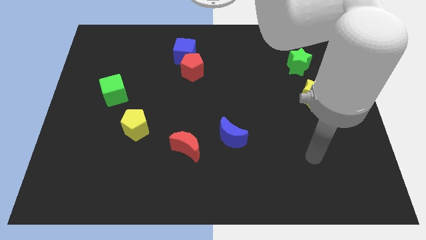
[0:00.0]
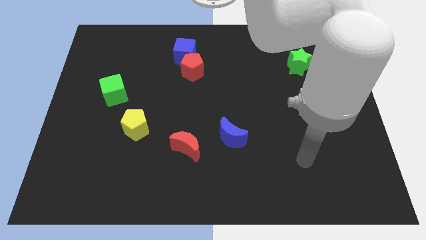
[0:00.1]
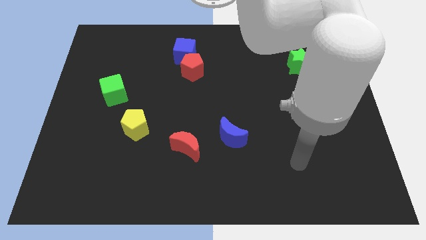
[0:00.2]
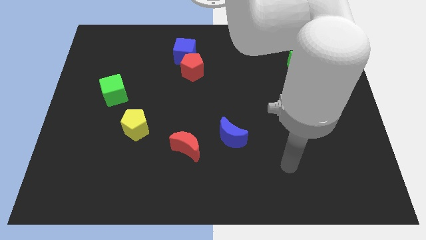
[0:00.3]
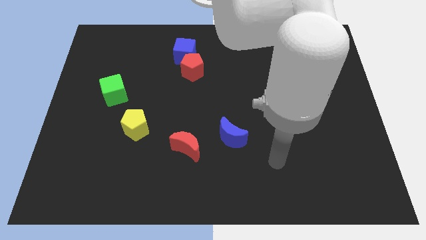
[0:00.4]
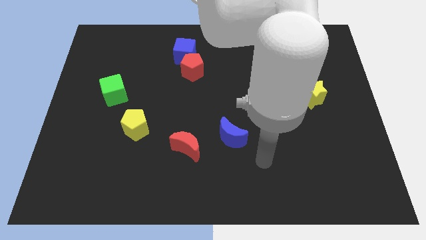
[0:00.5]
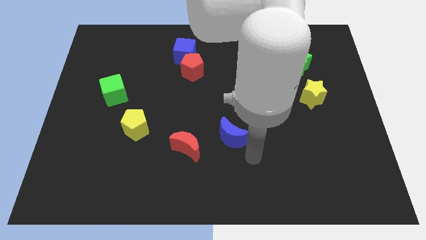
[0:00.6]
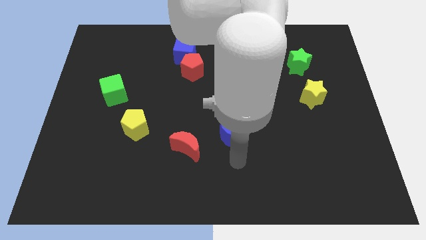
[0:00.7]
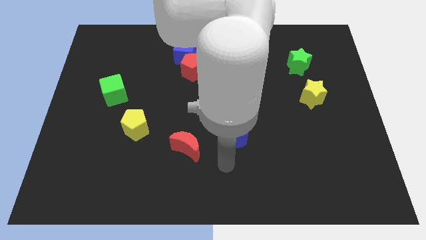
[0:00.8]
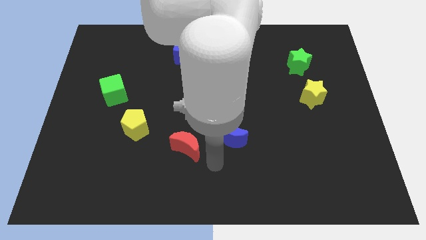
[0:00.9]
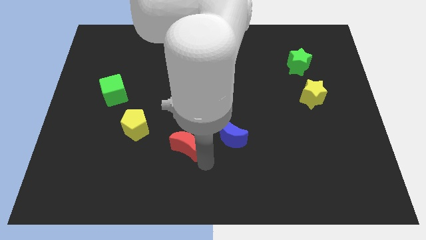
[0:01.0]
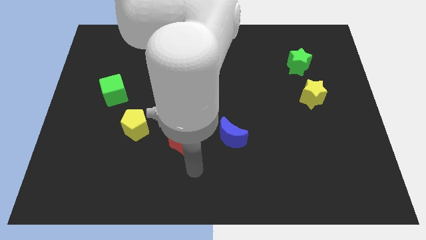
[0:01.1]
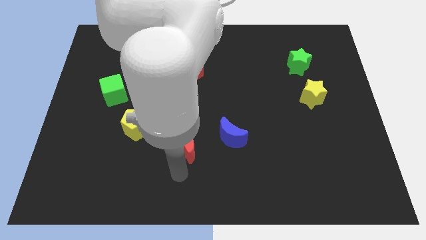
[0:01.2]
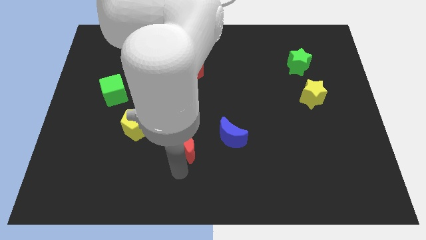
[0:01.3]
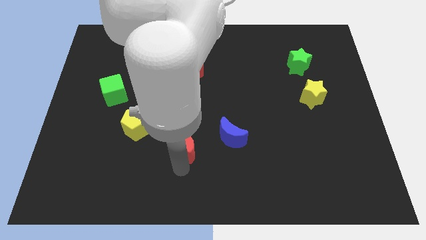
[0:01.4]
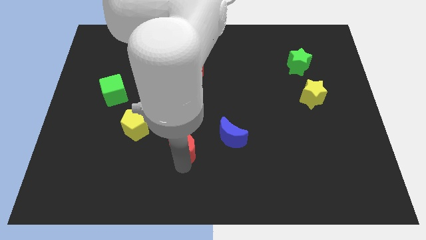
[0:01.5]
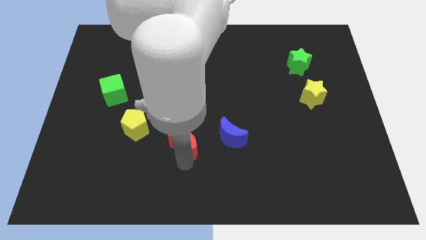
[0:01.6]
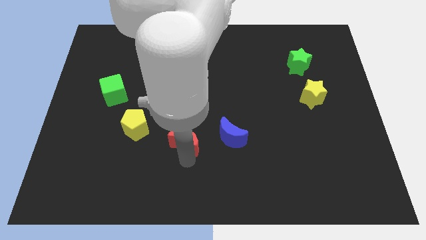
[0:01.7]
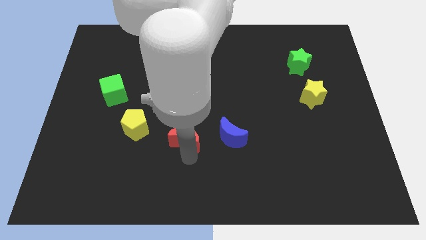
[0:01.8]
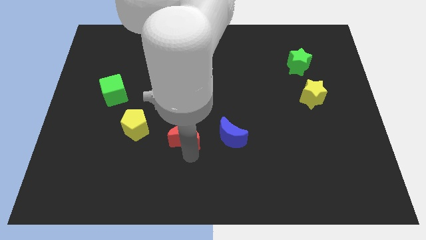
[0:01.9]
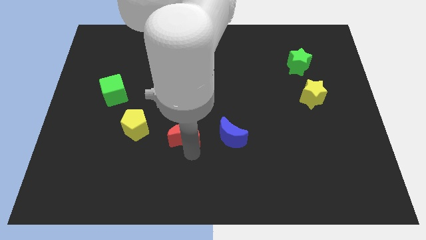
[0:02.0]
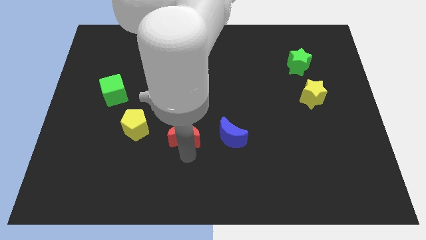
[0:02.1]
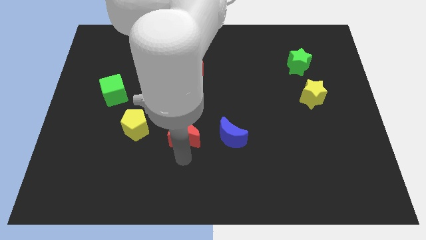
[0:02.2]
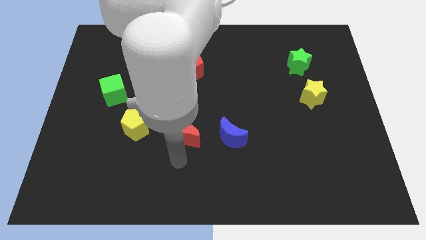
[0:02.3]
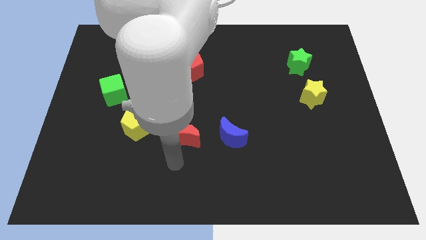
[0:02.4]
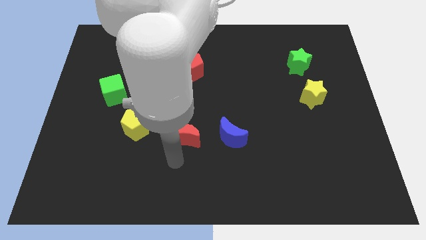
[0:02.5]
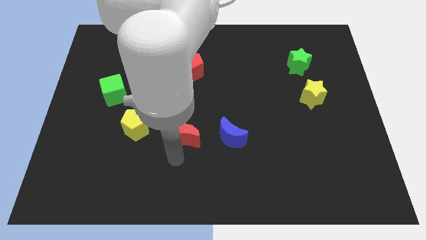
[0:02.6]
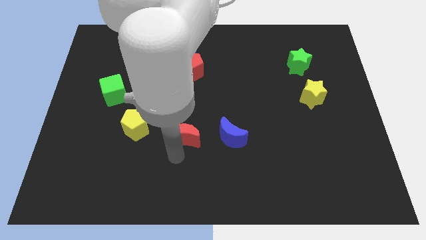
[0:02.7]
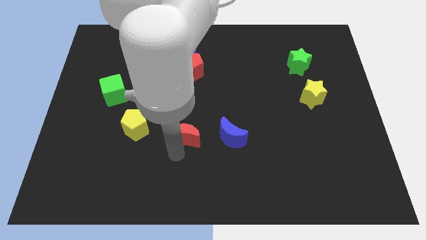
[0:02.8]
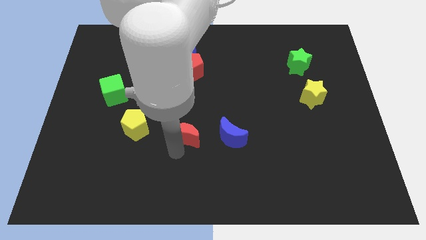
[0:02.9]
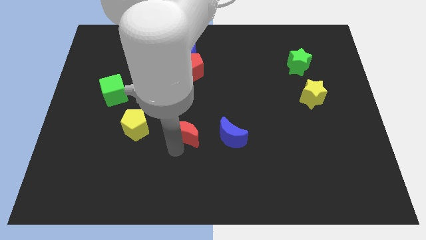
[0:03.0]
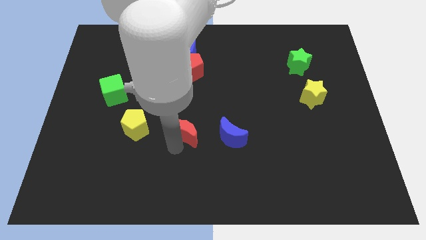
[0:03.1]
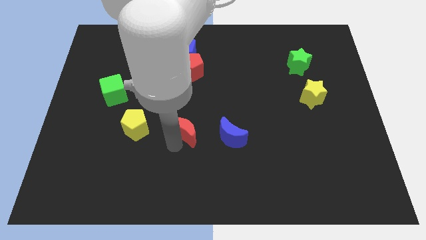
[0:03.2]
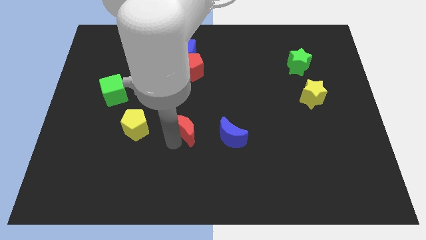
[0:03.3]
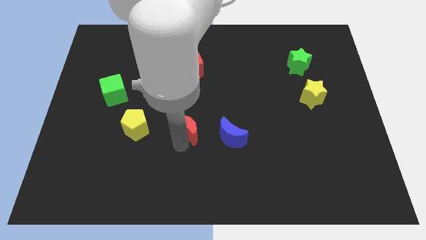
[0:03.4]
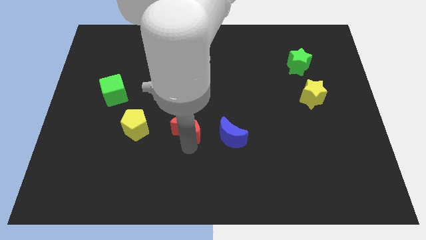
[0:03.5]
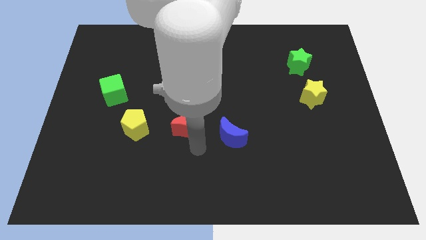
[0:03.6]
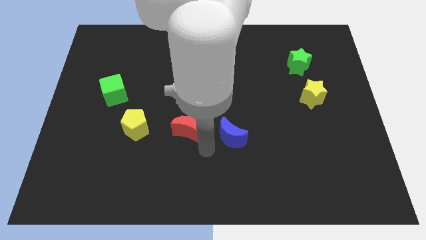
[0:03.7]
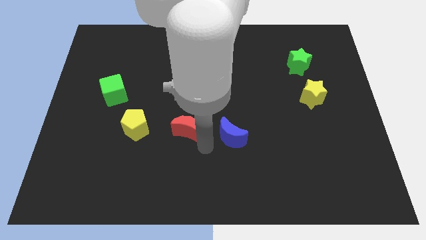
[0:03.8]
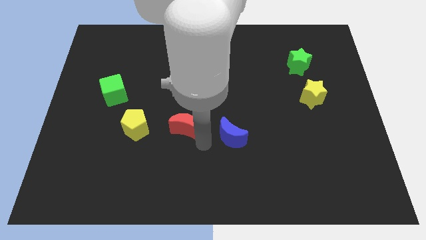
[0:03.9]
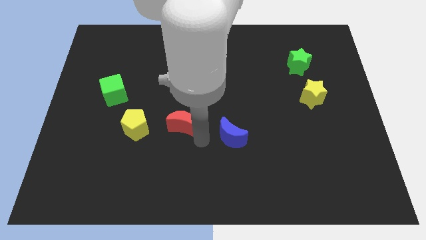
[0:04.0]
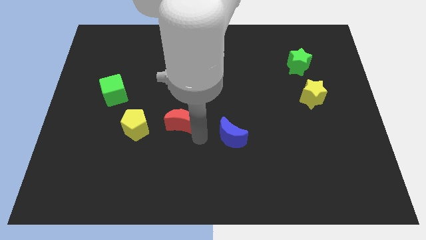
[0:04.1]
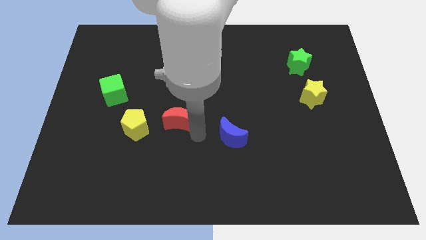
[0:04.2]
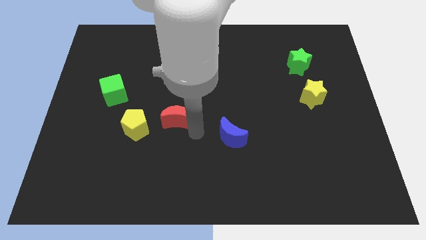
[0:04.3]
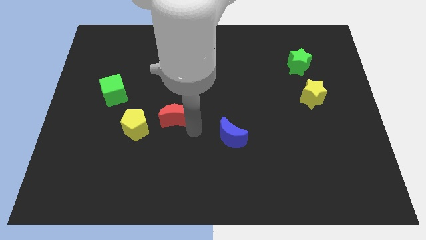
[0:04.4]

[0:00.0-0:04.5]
move the red moon up and to the left slightly

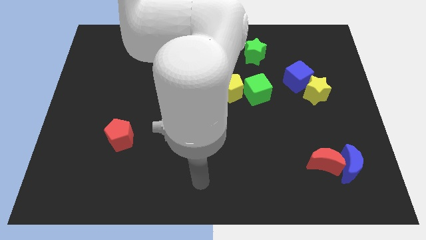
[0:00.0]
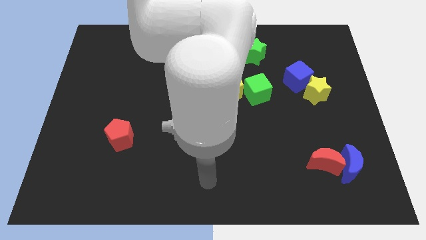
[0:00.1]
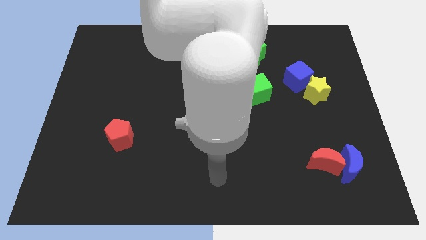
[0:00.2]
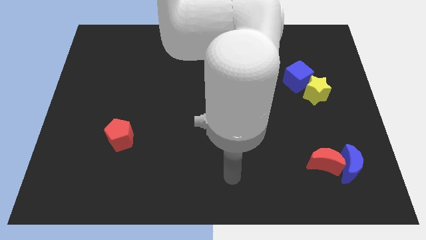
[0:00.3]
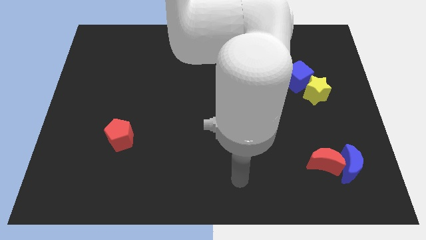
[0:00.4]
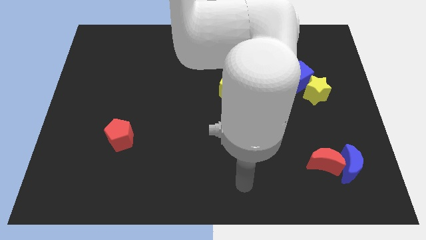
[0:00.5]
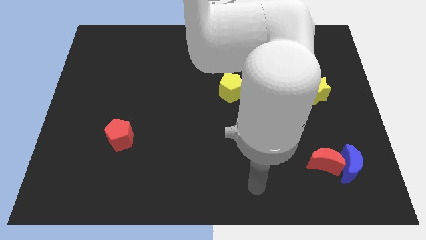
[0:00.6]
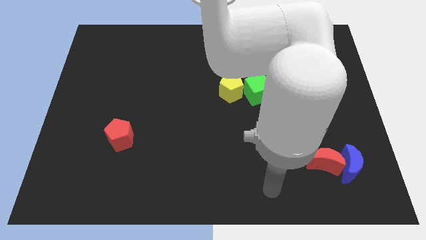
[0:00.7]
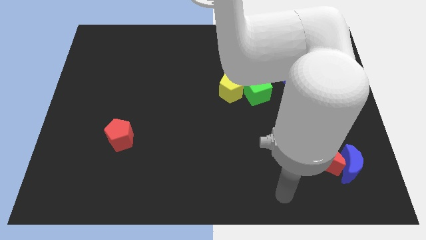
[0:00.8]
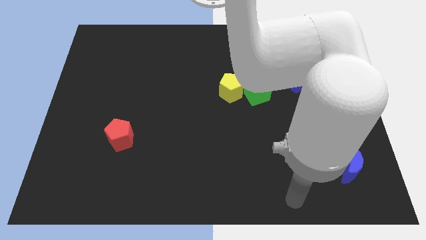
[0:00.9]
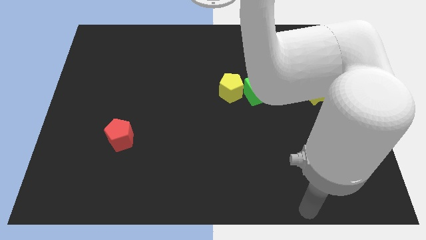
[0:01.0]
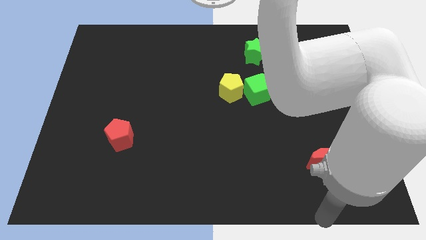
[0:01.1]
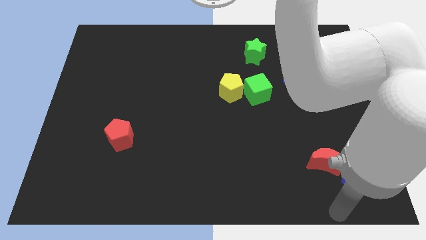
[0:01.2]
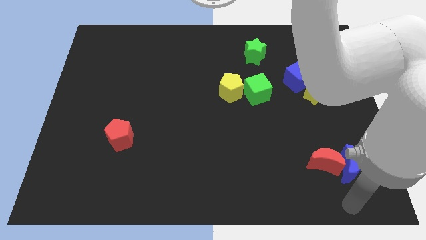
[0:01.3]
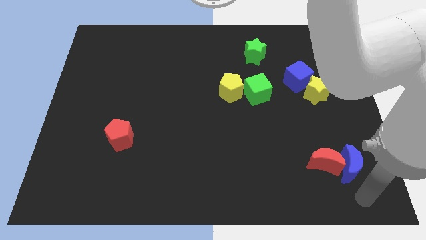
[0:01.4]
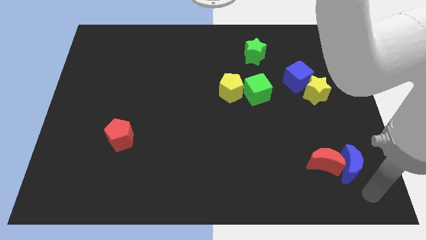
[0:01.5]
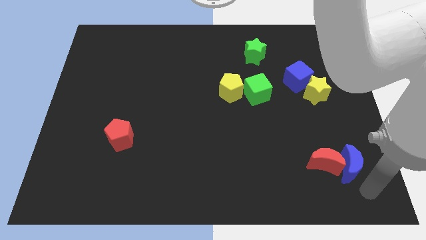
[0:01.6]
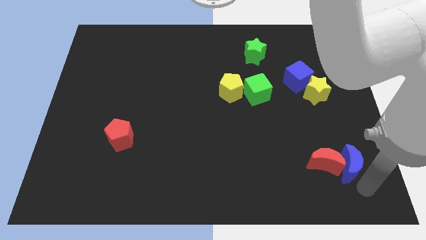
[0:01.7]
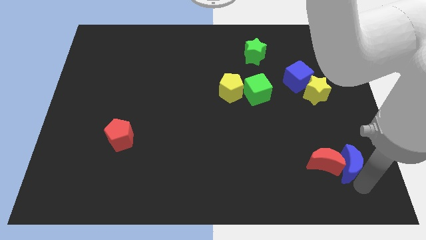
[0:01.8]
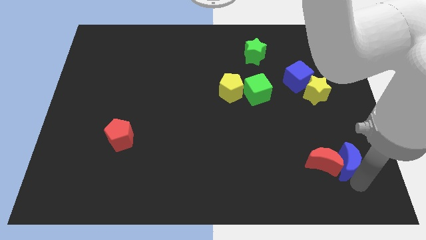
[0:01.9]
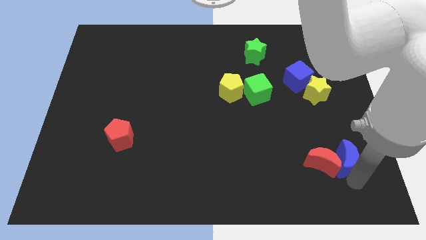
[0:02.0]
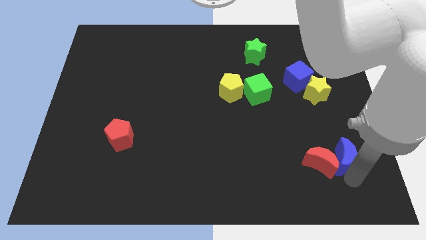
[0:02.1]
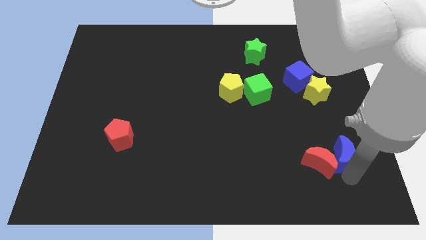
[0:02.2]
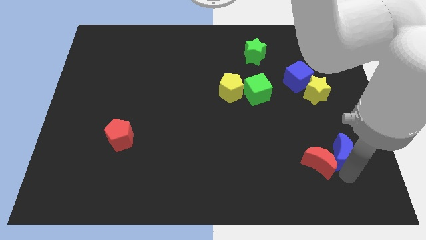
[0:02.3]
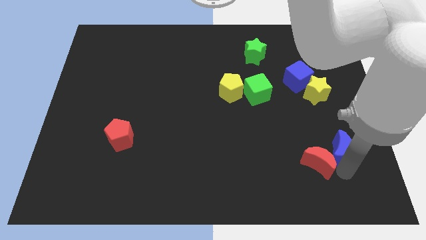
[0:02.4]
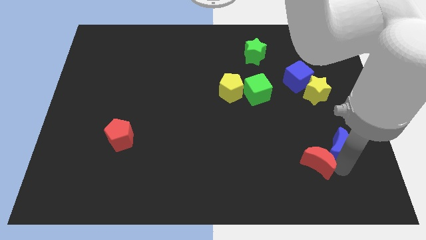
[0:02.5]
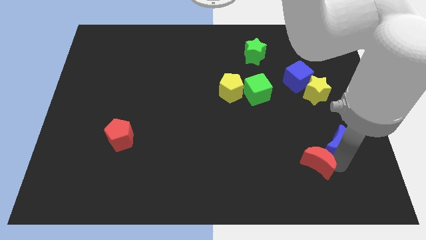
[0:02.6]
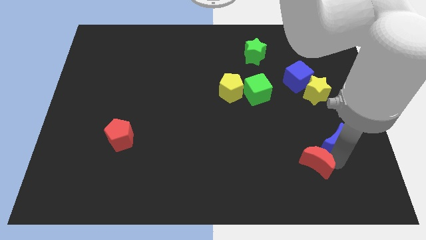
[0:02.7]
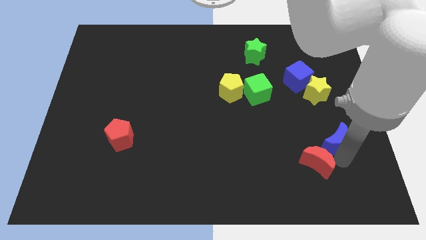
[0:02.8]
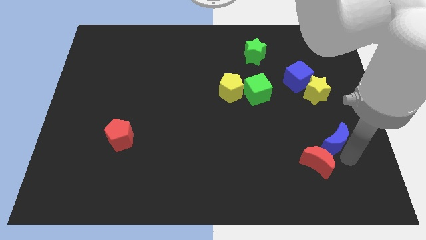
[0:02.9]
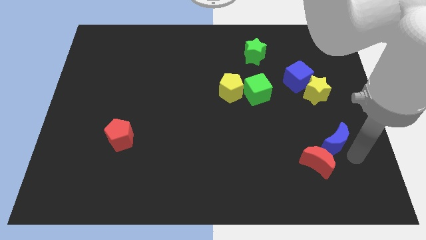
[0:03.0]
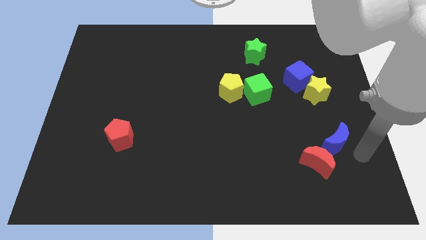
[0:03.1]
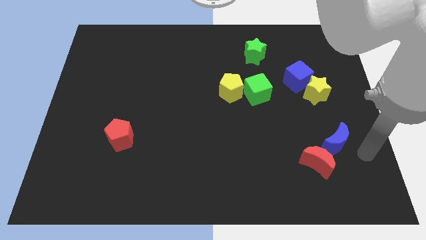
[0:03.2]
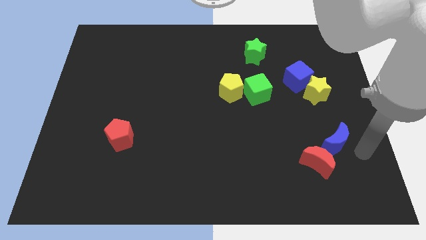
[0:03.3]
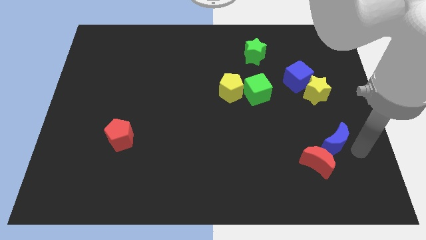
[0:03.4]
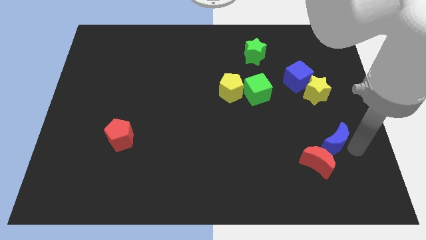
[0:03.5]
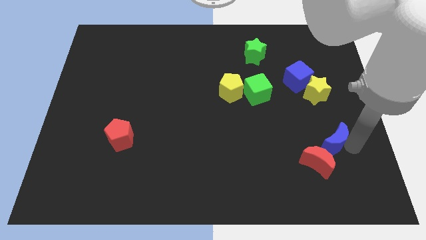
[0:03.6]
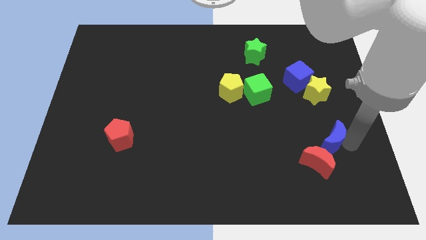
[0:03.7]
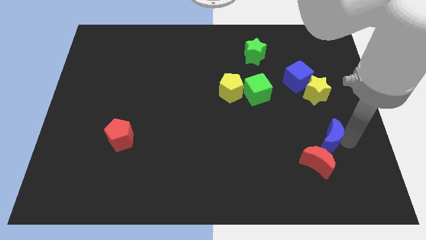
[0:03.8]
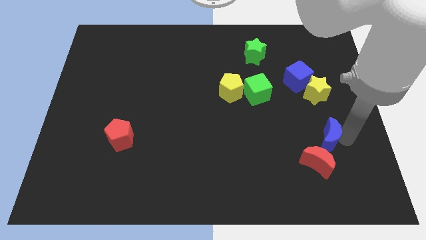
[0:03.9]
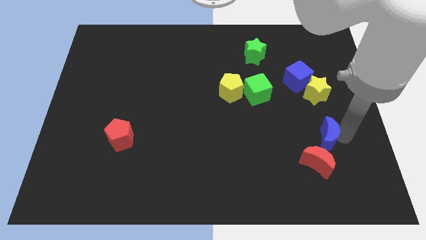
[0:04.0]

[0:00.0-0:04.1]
push the blue moon a bit up and then left
